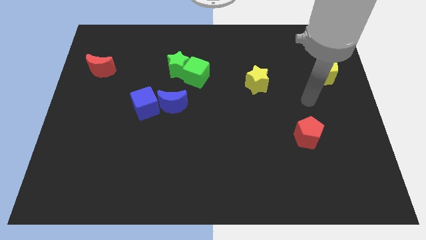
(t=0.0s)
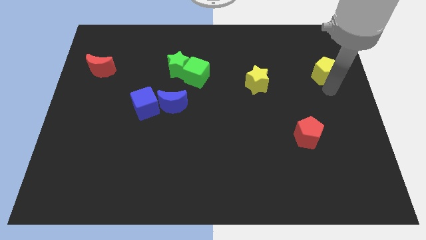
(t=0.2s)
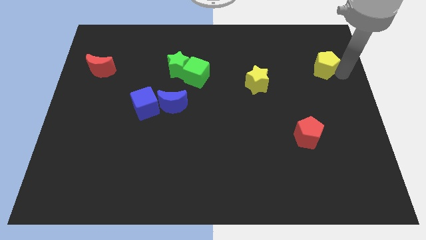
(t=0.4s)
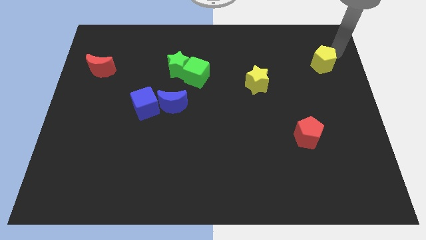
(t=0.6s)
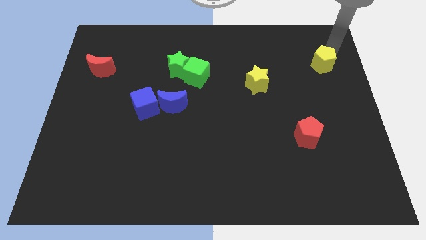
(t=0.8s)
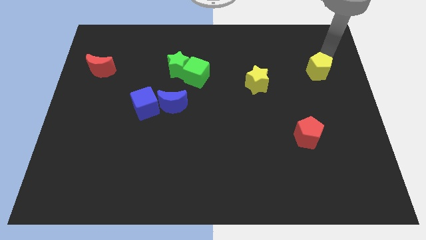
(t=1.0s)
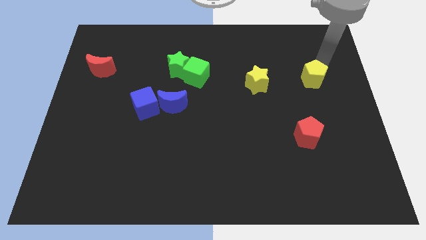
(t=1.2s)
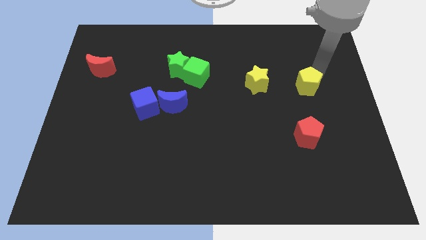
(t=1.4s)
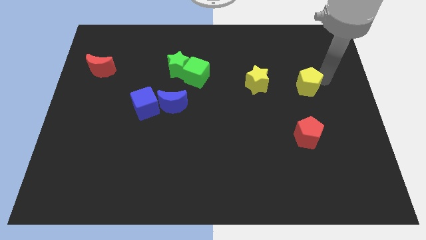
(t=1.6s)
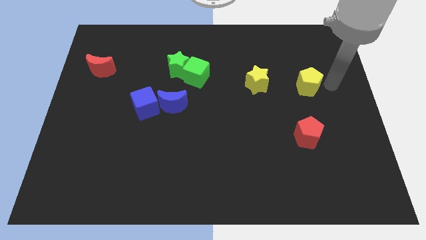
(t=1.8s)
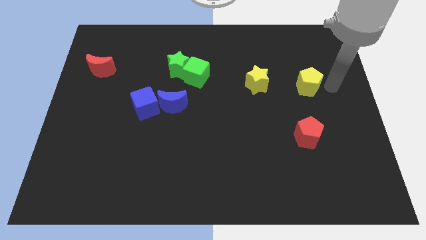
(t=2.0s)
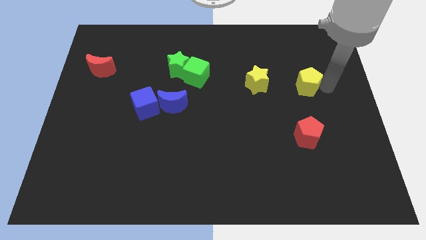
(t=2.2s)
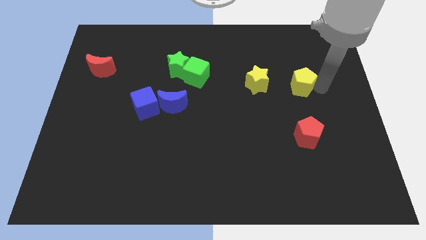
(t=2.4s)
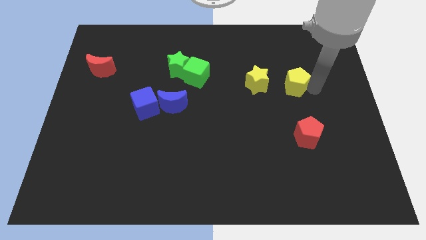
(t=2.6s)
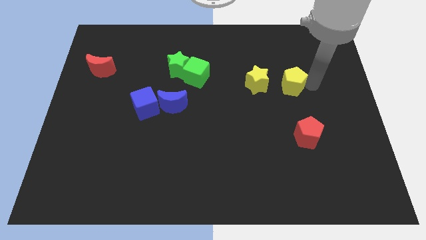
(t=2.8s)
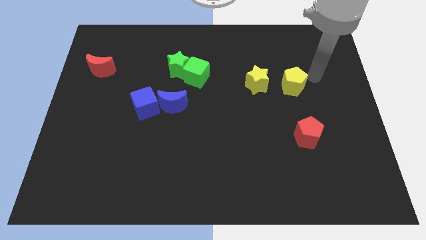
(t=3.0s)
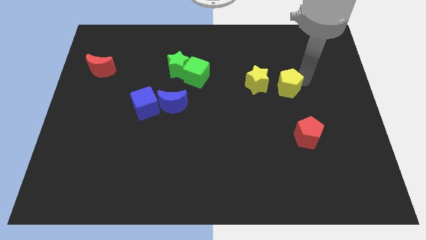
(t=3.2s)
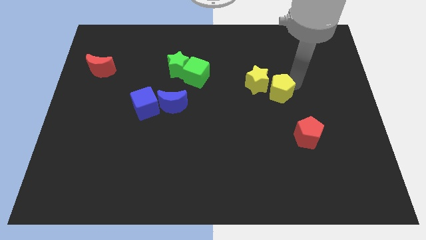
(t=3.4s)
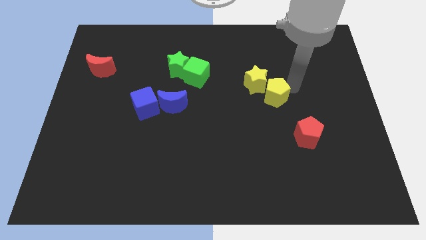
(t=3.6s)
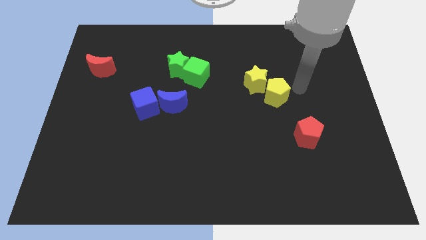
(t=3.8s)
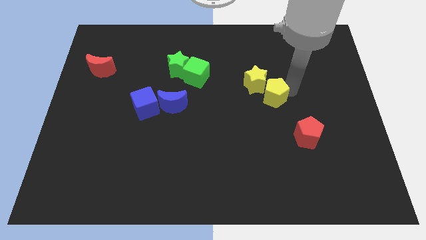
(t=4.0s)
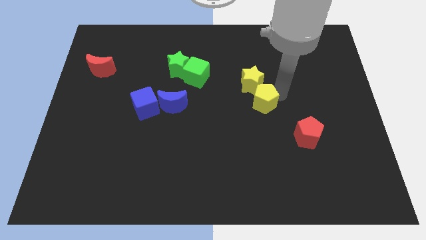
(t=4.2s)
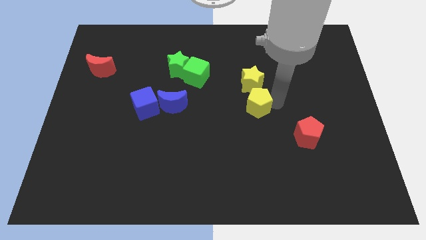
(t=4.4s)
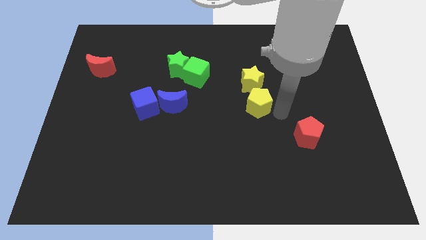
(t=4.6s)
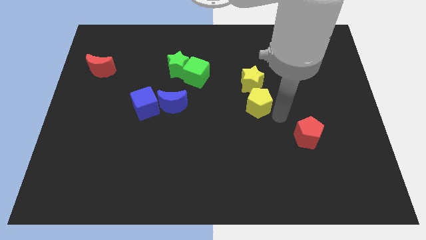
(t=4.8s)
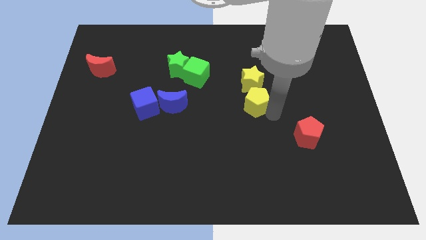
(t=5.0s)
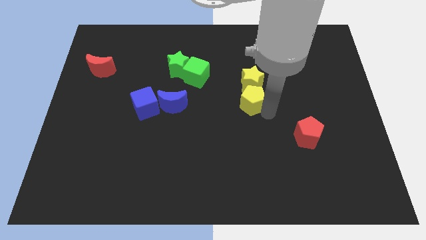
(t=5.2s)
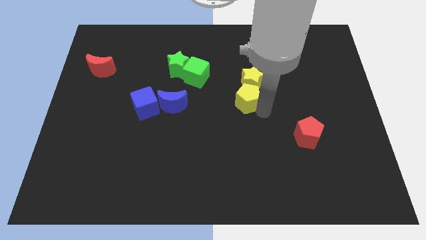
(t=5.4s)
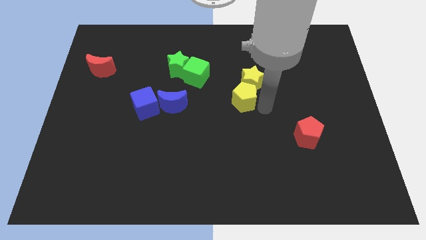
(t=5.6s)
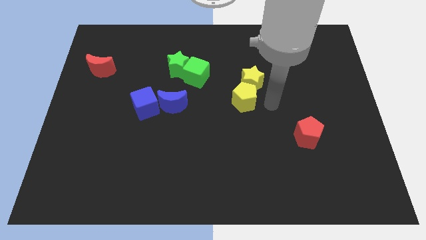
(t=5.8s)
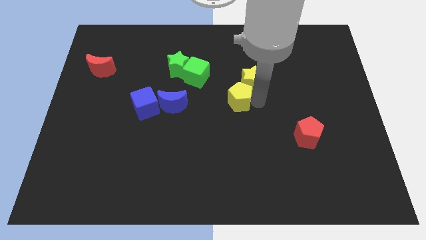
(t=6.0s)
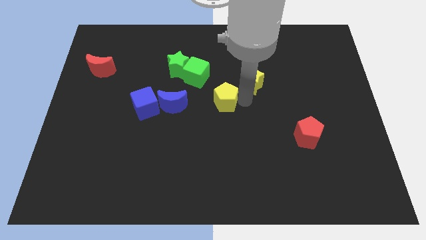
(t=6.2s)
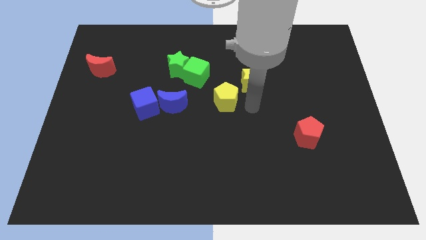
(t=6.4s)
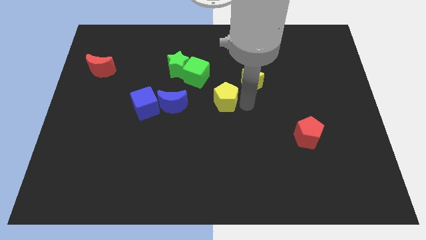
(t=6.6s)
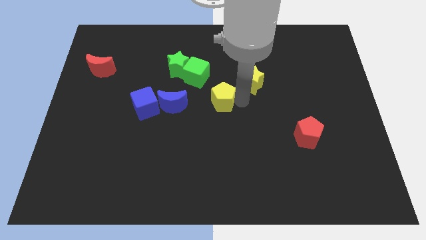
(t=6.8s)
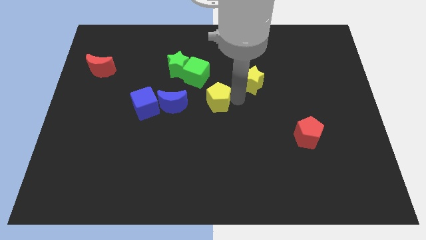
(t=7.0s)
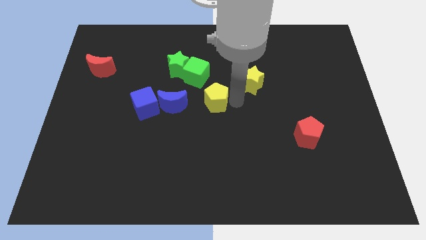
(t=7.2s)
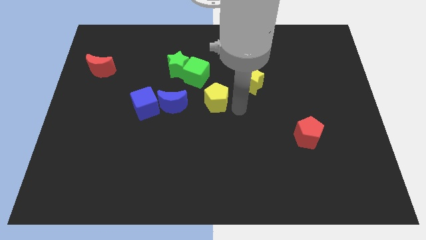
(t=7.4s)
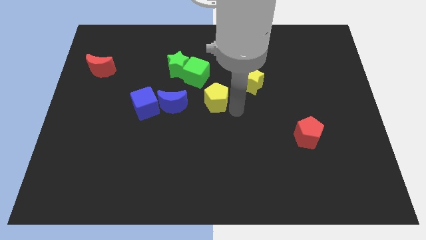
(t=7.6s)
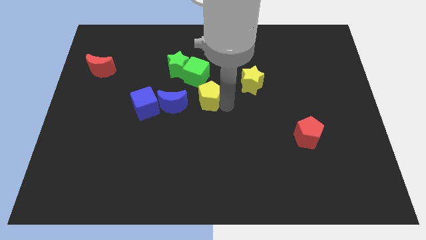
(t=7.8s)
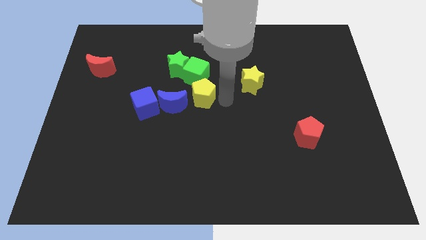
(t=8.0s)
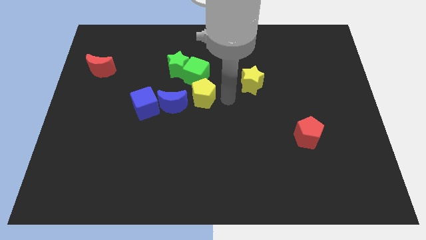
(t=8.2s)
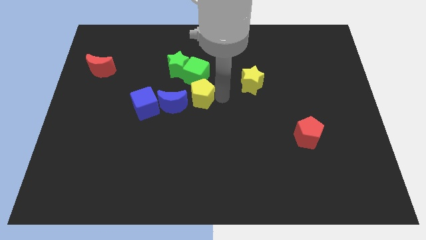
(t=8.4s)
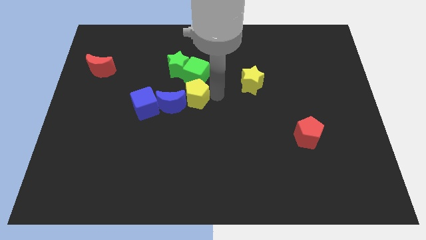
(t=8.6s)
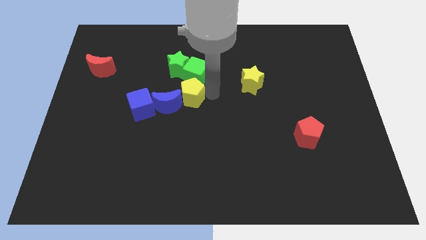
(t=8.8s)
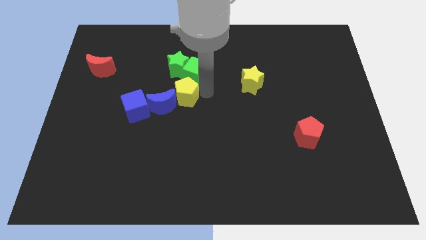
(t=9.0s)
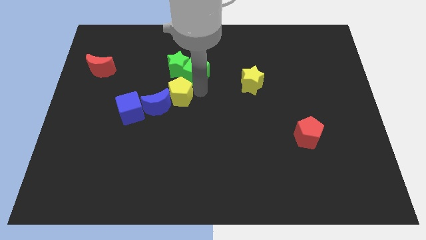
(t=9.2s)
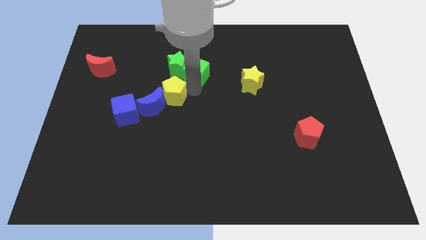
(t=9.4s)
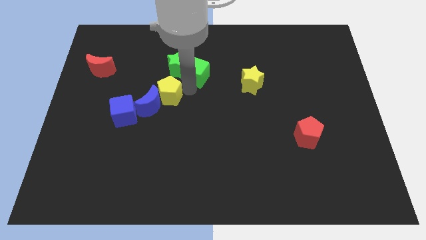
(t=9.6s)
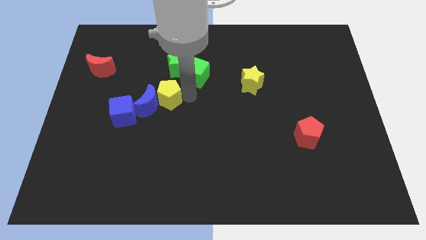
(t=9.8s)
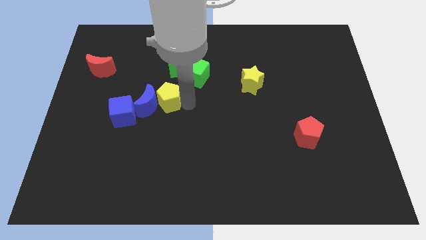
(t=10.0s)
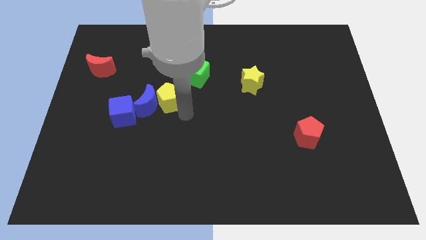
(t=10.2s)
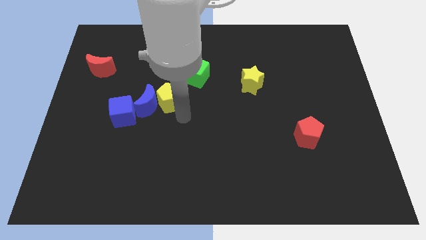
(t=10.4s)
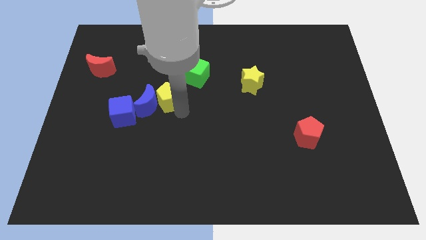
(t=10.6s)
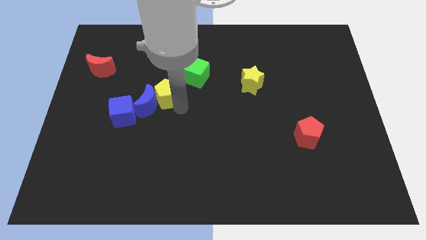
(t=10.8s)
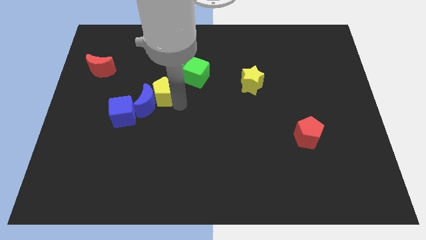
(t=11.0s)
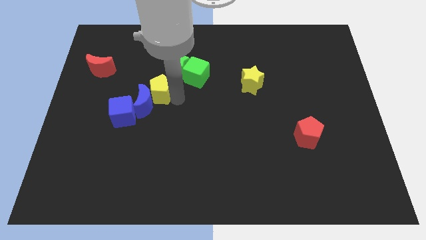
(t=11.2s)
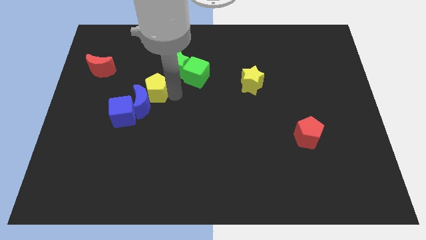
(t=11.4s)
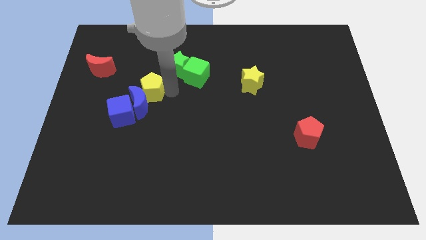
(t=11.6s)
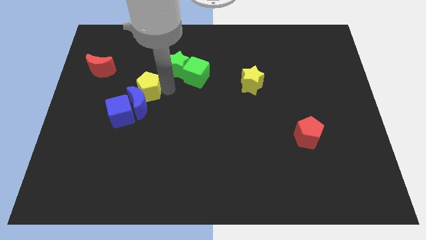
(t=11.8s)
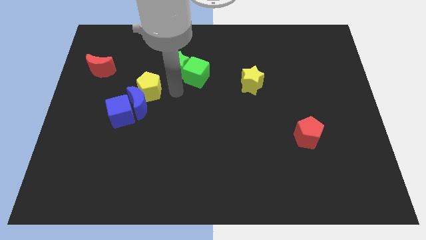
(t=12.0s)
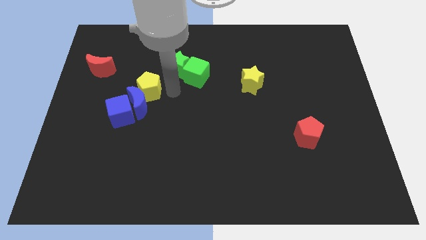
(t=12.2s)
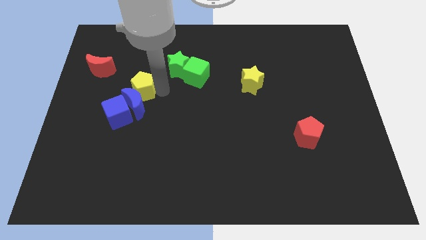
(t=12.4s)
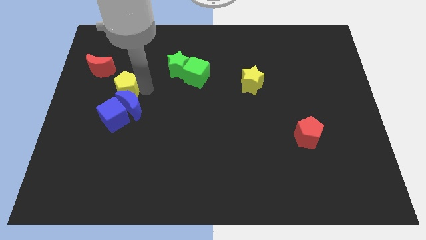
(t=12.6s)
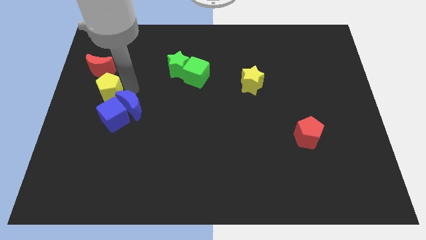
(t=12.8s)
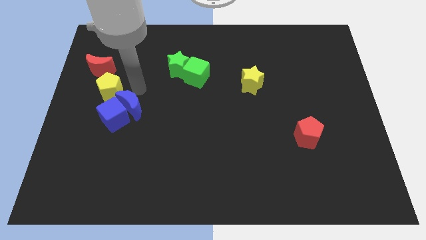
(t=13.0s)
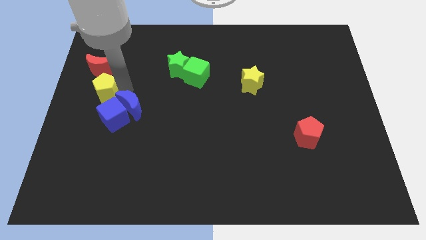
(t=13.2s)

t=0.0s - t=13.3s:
put the yellow pentagon to the left side
